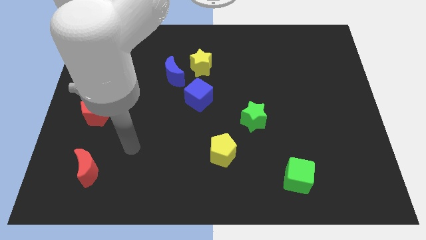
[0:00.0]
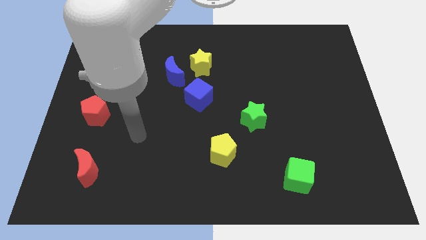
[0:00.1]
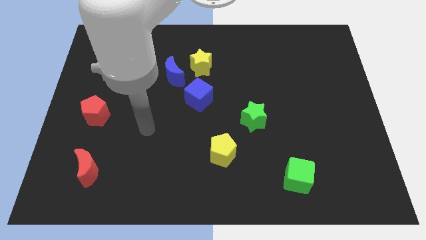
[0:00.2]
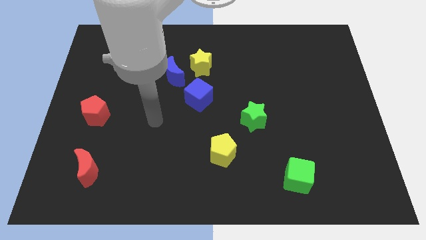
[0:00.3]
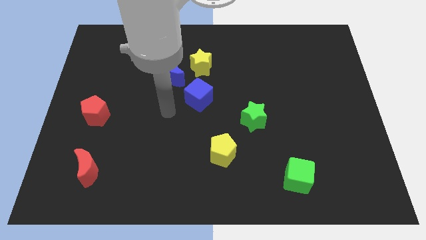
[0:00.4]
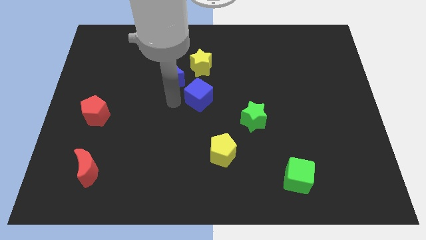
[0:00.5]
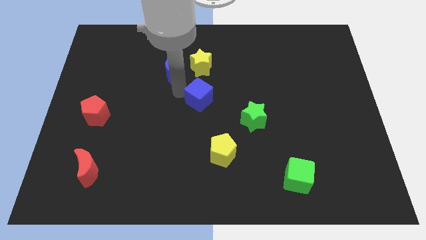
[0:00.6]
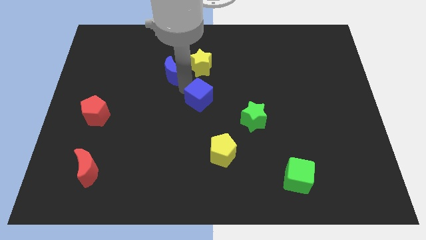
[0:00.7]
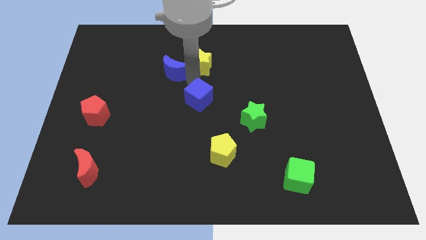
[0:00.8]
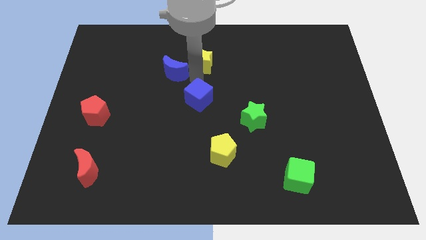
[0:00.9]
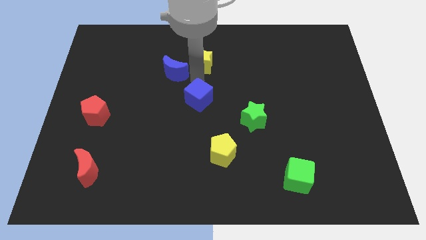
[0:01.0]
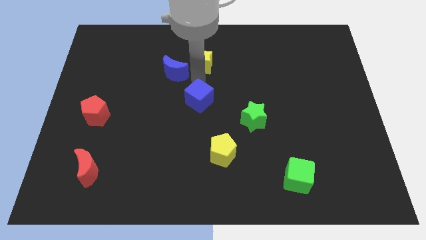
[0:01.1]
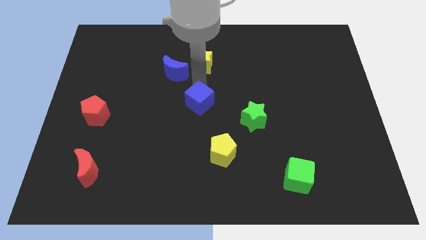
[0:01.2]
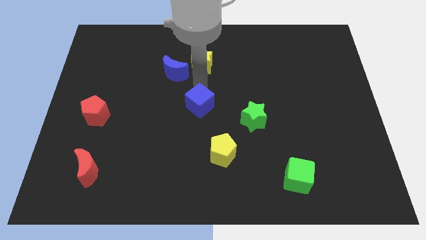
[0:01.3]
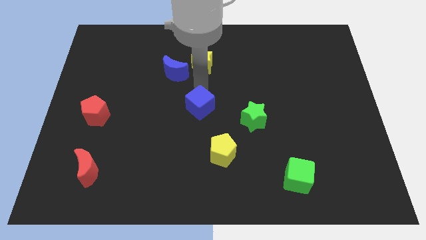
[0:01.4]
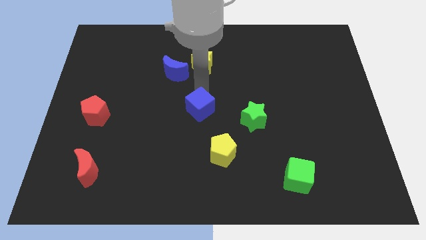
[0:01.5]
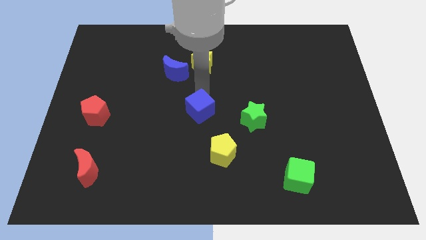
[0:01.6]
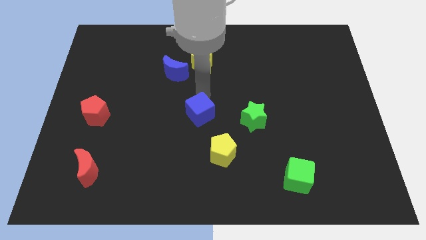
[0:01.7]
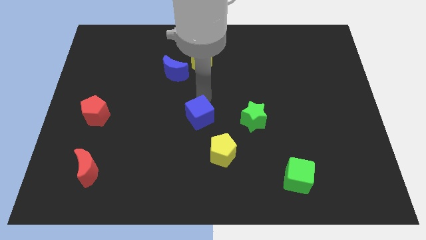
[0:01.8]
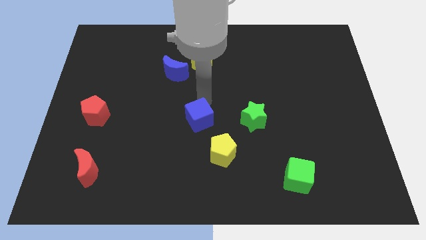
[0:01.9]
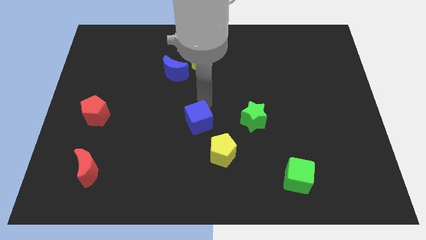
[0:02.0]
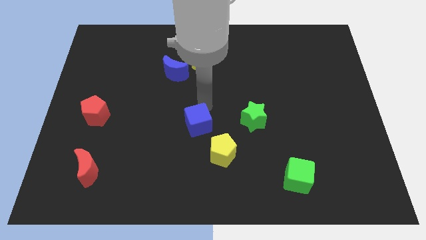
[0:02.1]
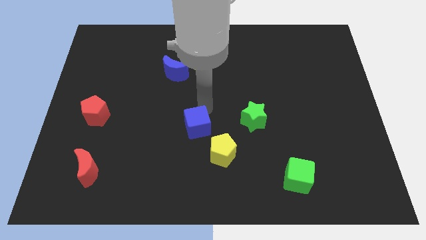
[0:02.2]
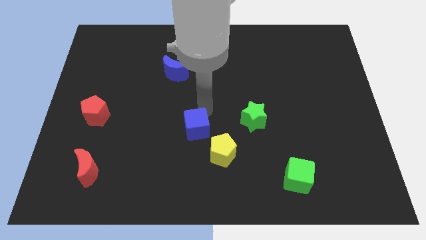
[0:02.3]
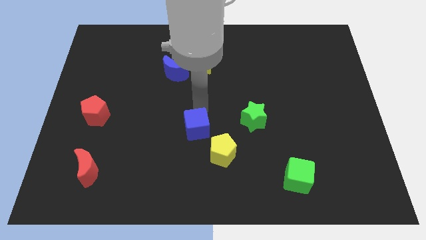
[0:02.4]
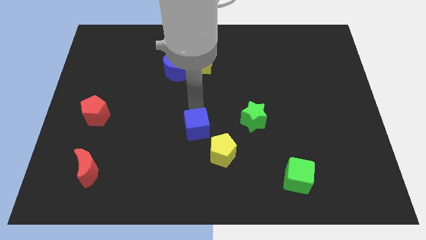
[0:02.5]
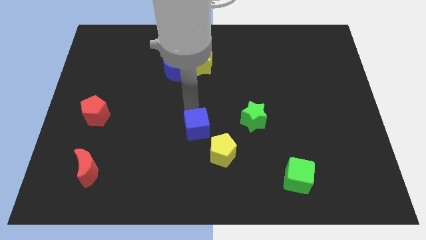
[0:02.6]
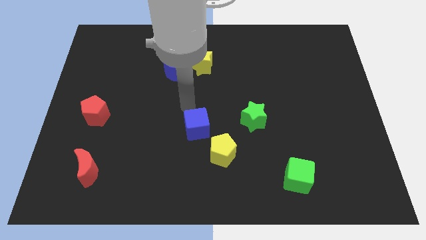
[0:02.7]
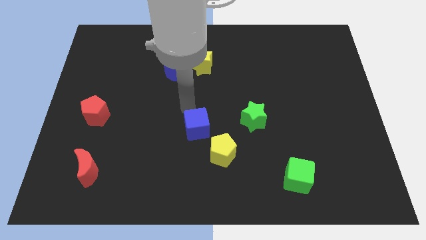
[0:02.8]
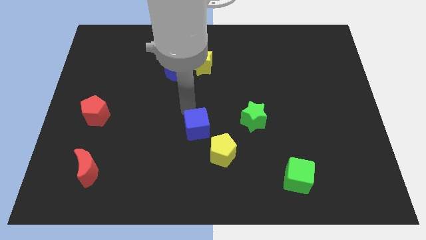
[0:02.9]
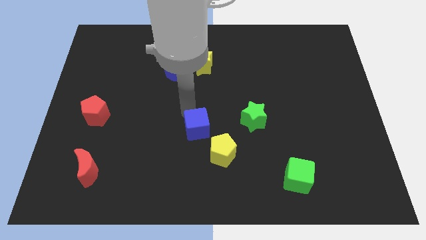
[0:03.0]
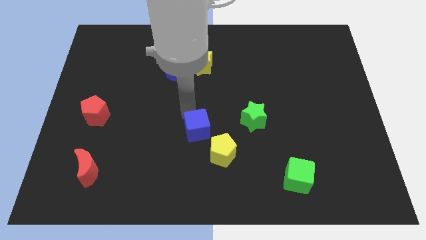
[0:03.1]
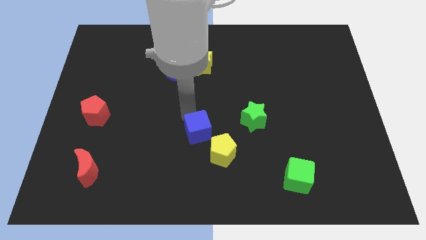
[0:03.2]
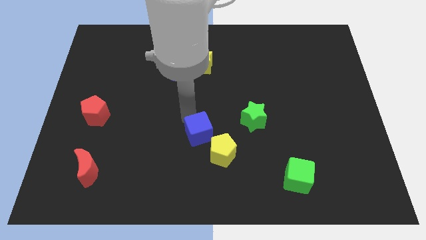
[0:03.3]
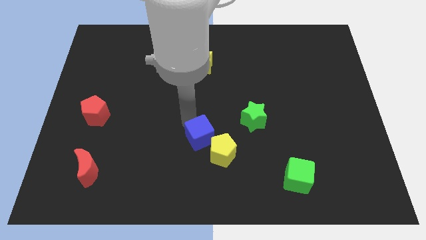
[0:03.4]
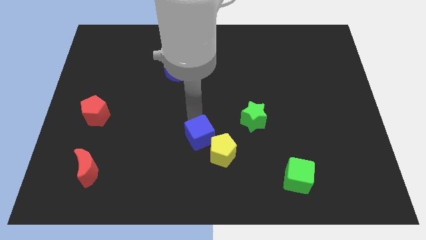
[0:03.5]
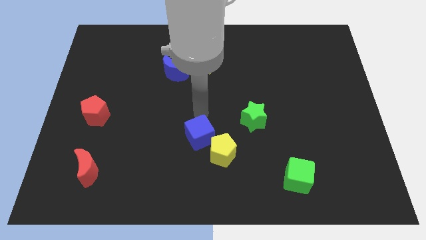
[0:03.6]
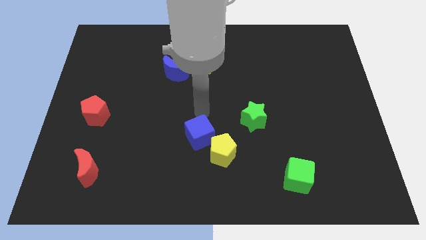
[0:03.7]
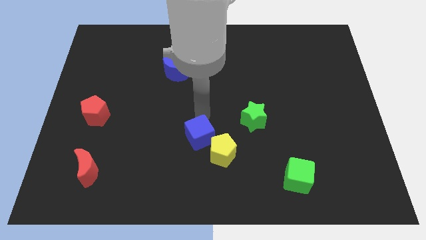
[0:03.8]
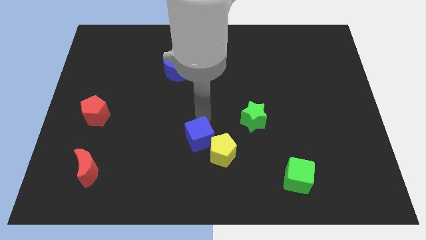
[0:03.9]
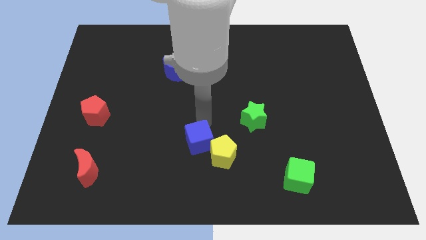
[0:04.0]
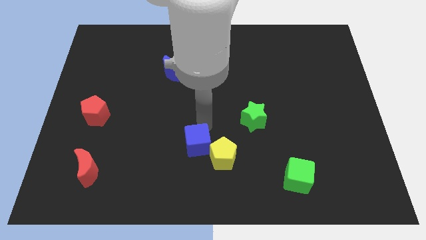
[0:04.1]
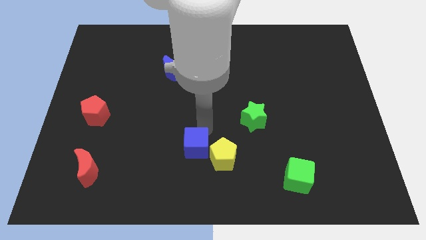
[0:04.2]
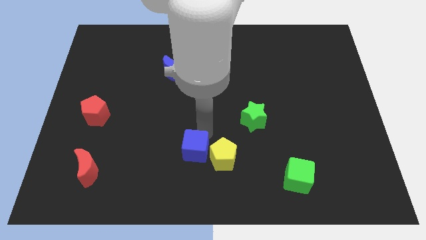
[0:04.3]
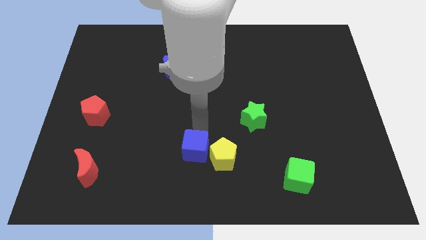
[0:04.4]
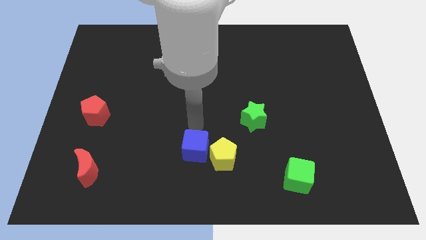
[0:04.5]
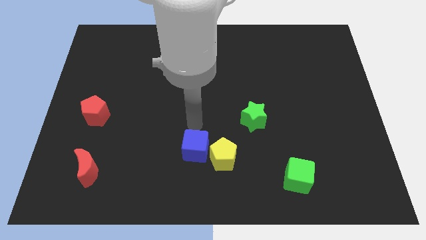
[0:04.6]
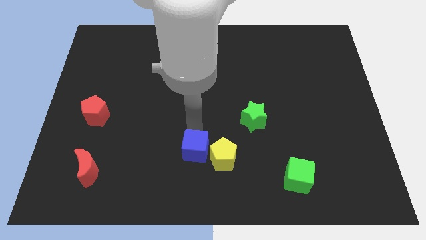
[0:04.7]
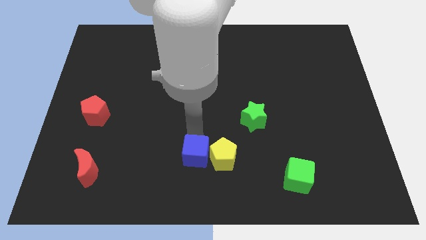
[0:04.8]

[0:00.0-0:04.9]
move the blue cube to the bottom left side of the yellow pentagon
